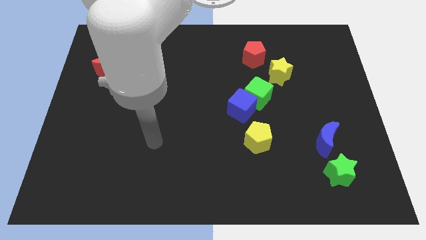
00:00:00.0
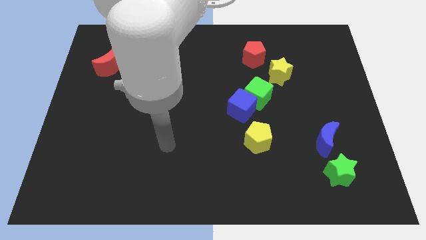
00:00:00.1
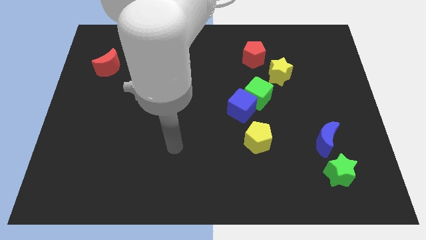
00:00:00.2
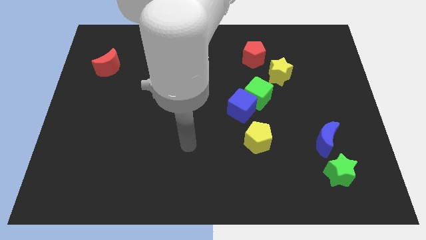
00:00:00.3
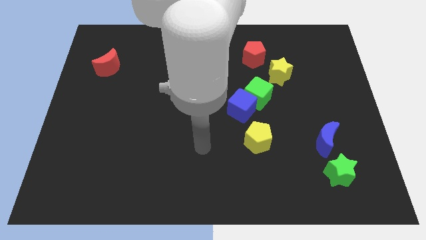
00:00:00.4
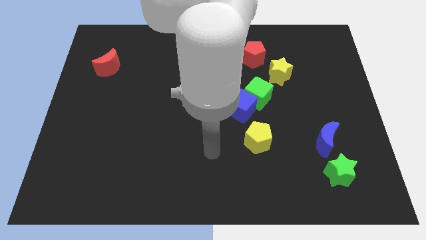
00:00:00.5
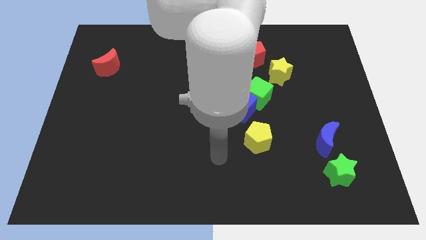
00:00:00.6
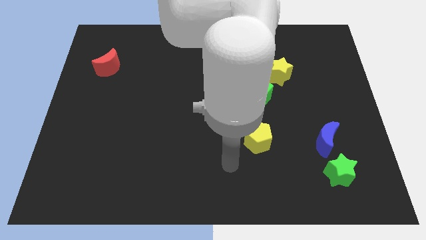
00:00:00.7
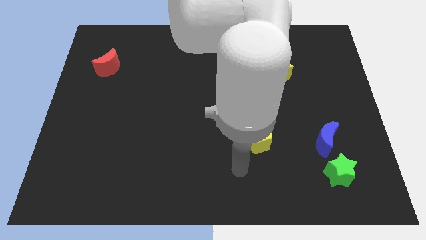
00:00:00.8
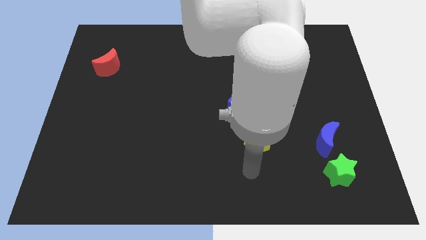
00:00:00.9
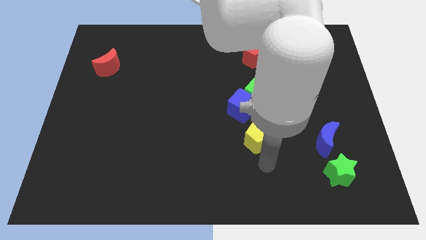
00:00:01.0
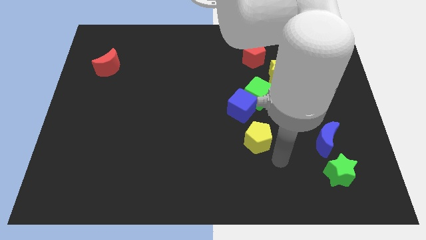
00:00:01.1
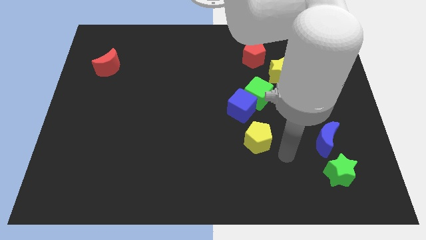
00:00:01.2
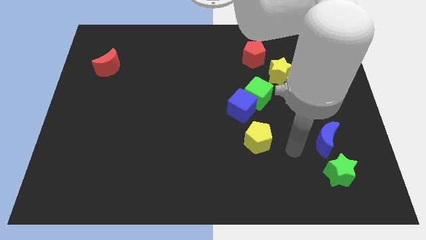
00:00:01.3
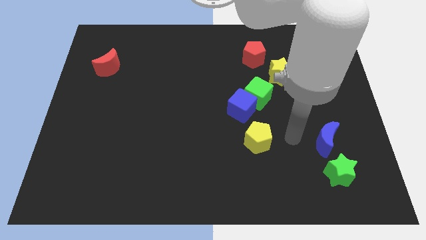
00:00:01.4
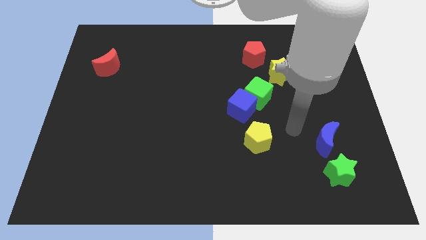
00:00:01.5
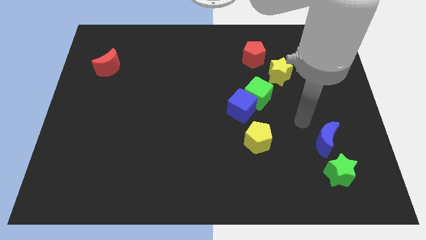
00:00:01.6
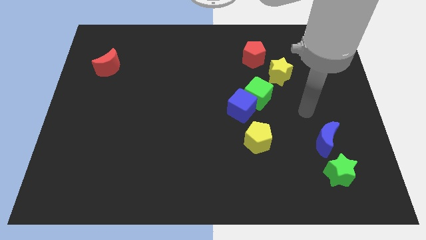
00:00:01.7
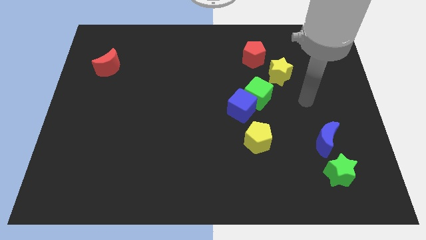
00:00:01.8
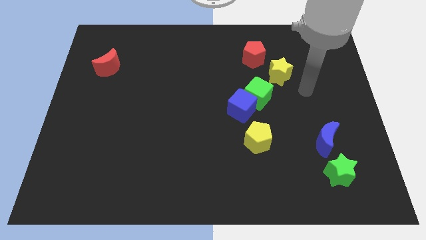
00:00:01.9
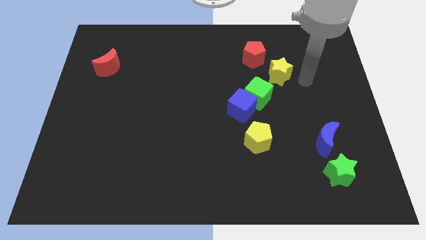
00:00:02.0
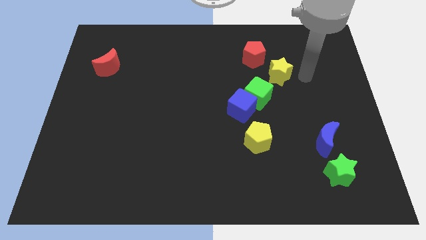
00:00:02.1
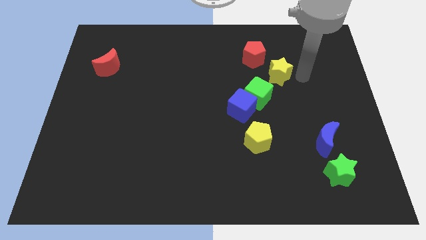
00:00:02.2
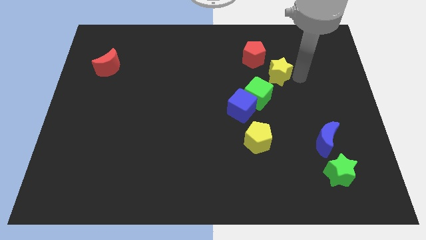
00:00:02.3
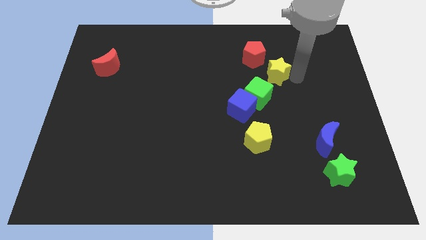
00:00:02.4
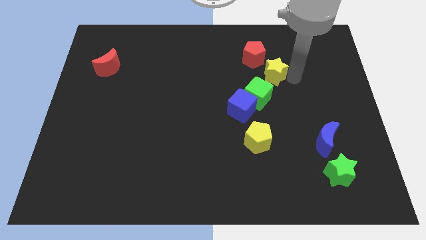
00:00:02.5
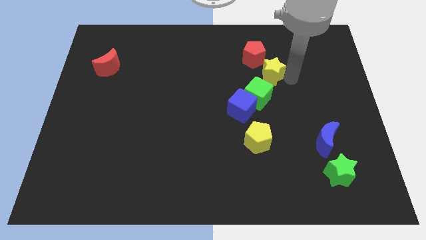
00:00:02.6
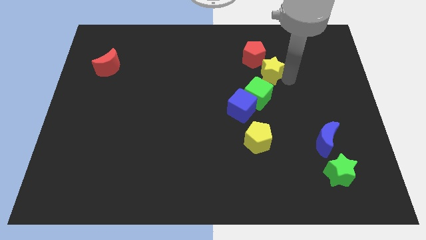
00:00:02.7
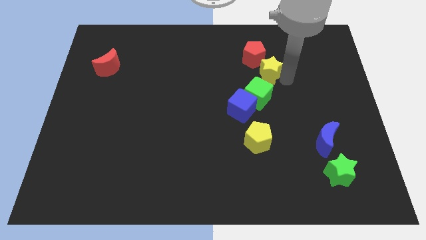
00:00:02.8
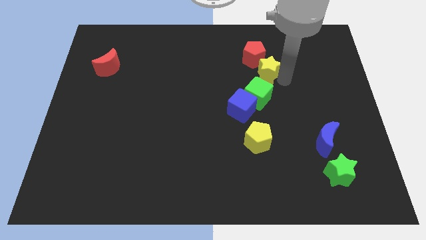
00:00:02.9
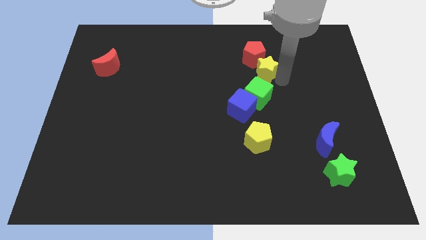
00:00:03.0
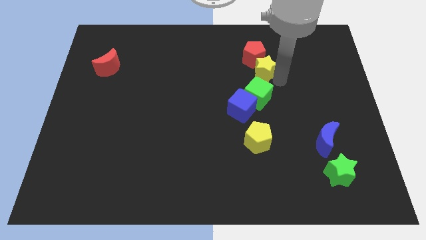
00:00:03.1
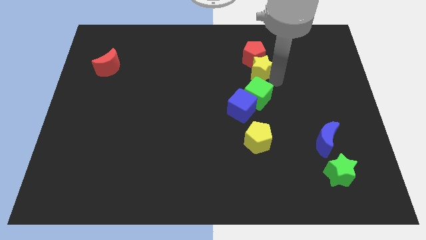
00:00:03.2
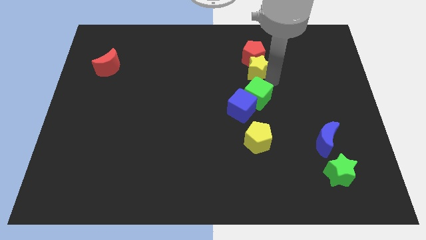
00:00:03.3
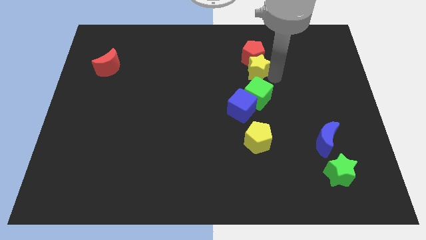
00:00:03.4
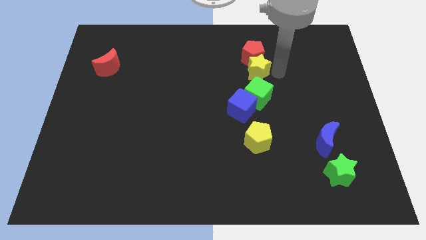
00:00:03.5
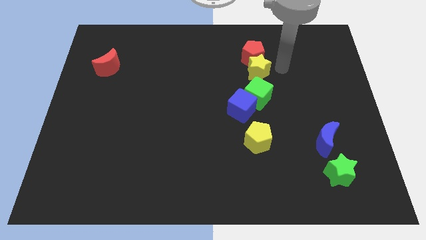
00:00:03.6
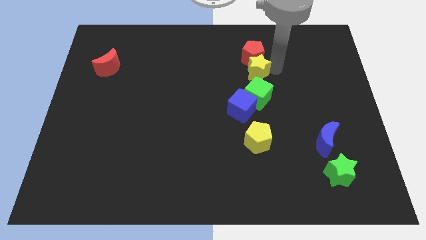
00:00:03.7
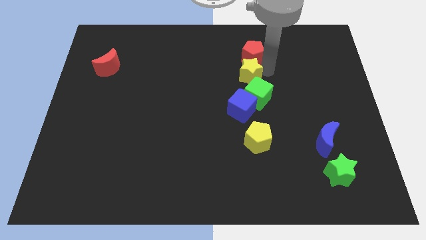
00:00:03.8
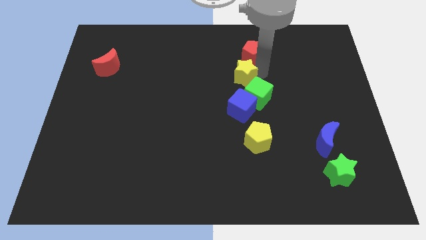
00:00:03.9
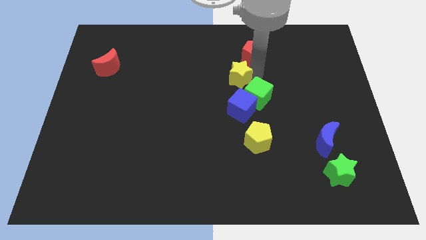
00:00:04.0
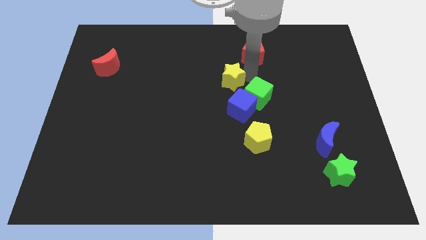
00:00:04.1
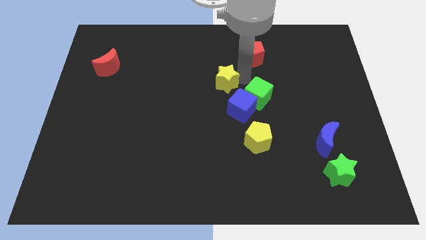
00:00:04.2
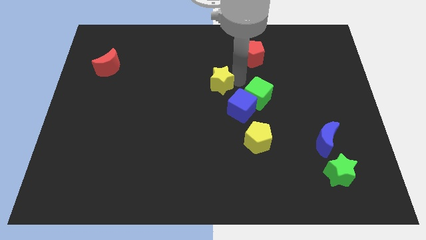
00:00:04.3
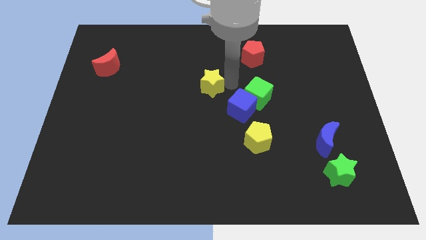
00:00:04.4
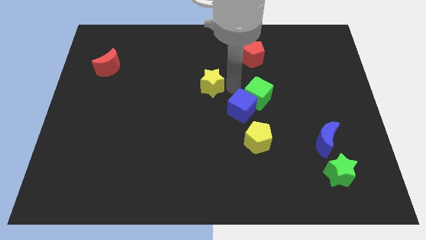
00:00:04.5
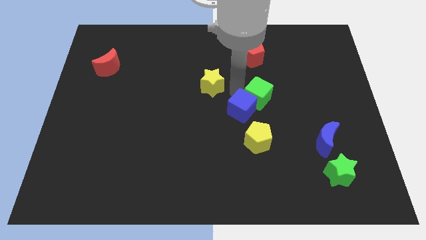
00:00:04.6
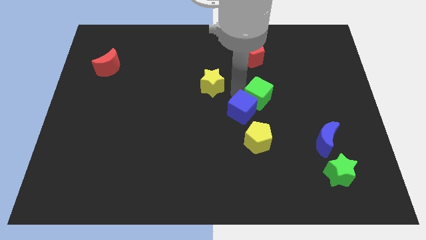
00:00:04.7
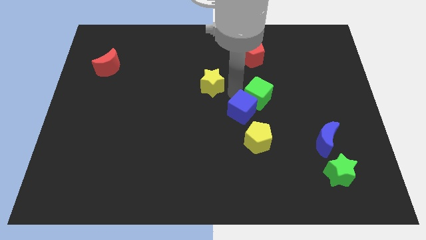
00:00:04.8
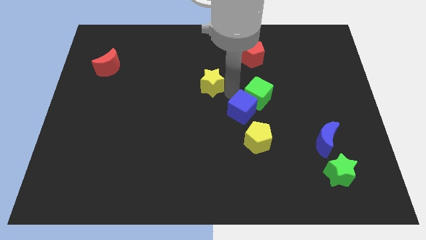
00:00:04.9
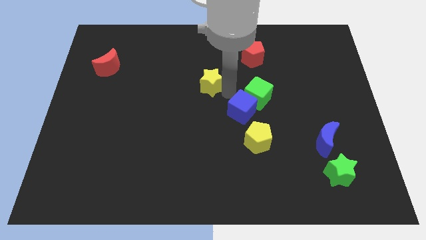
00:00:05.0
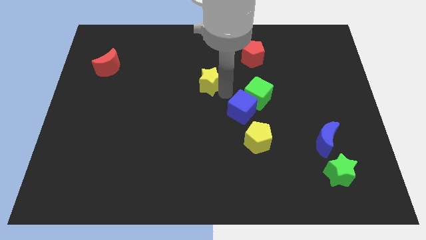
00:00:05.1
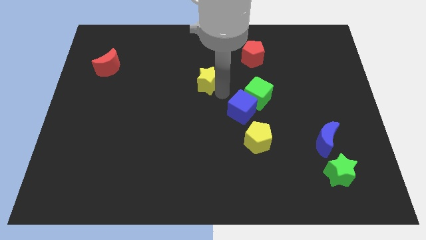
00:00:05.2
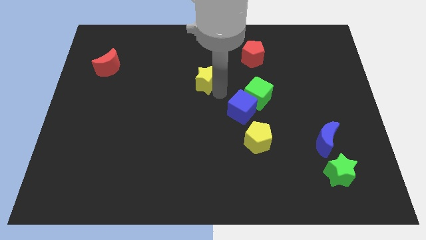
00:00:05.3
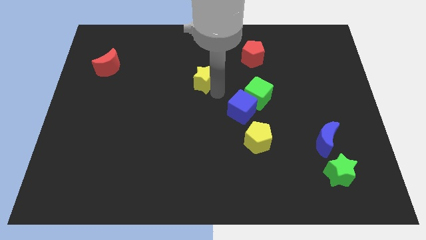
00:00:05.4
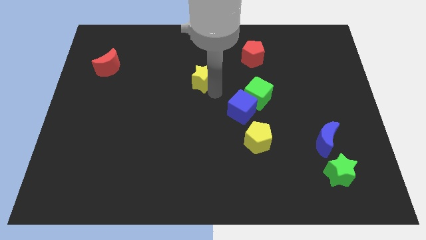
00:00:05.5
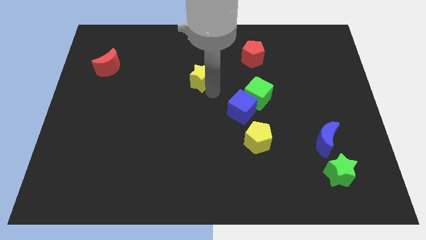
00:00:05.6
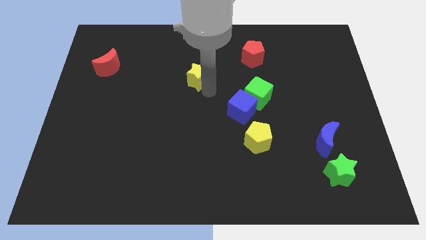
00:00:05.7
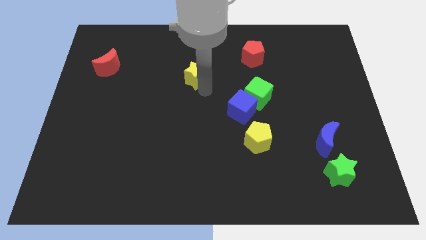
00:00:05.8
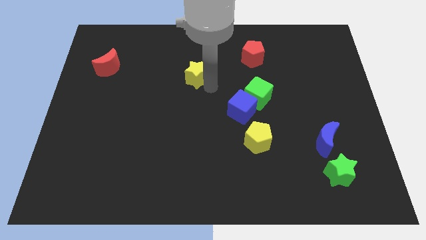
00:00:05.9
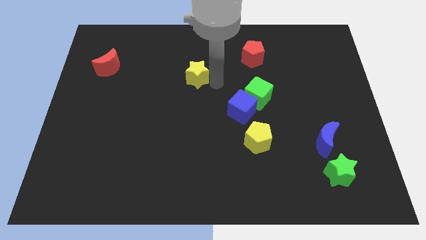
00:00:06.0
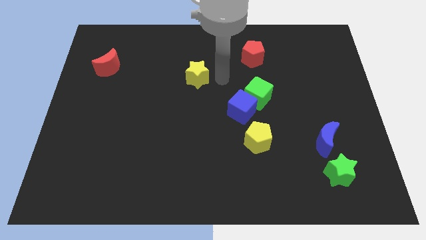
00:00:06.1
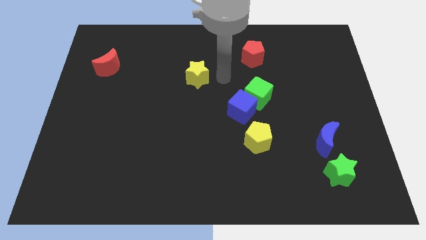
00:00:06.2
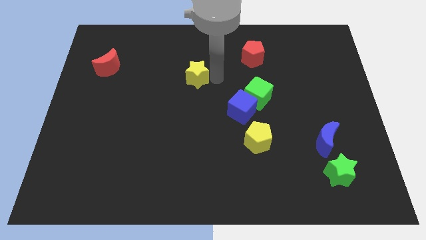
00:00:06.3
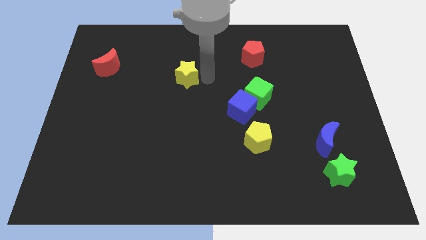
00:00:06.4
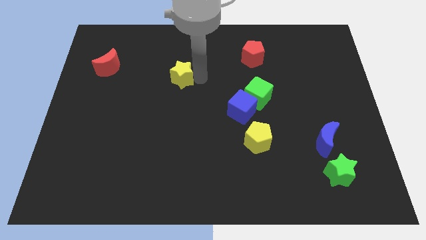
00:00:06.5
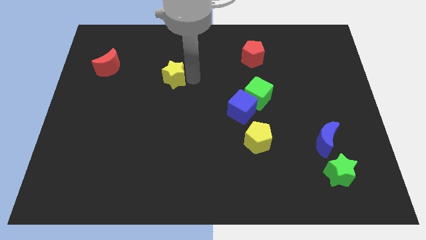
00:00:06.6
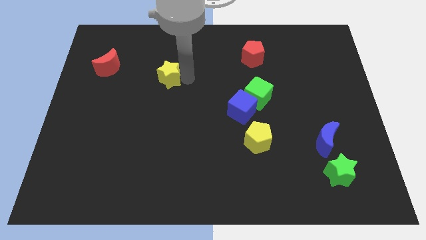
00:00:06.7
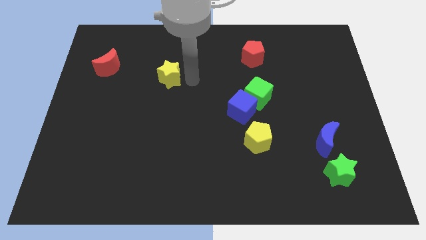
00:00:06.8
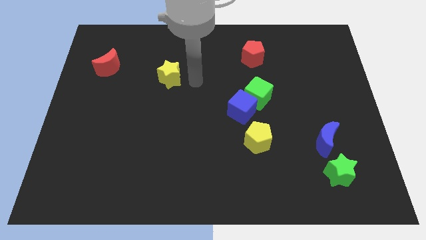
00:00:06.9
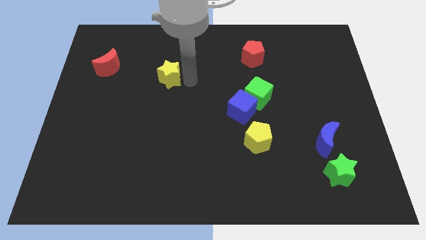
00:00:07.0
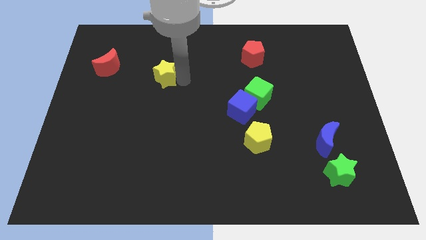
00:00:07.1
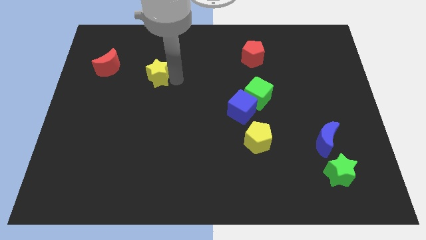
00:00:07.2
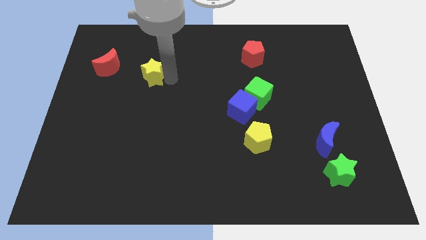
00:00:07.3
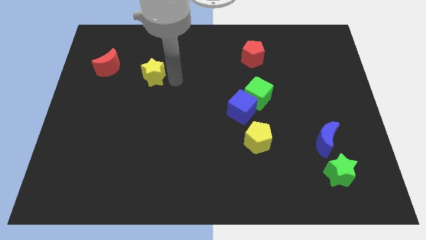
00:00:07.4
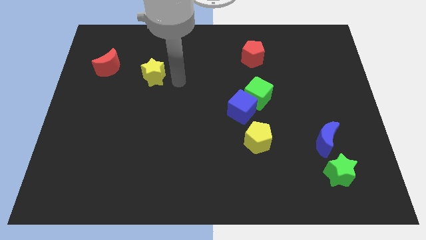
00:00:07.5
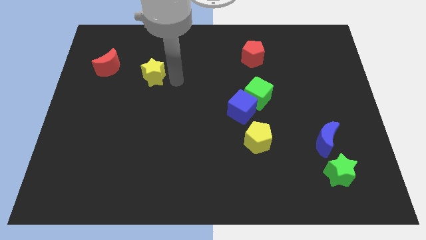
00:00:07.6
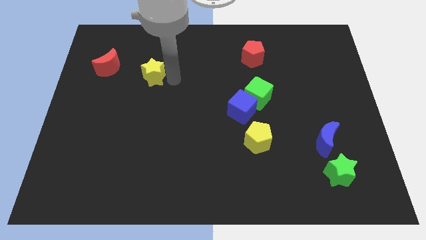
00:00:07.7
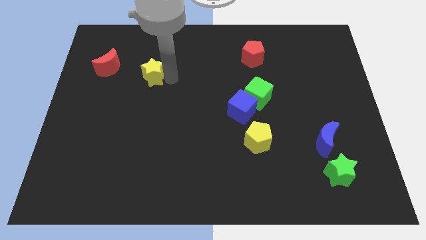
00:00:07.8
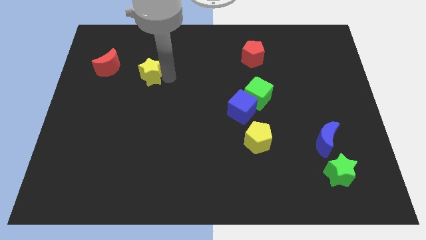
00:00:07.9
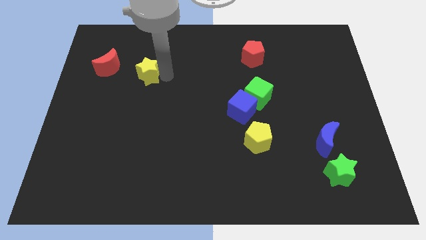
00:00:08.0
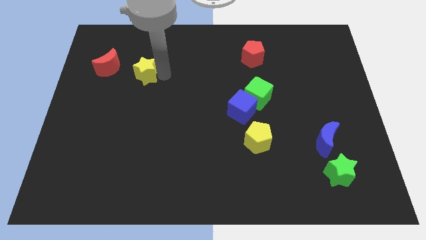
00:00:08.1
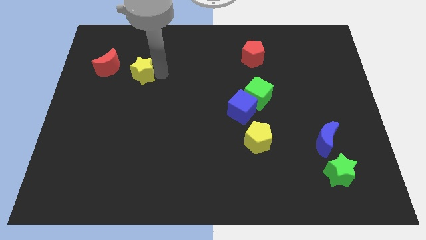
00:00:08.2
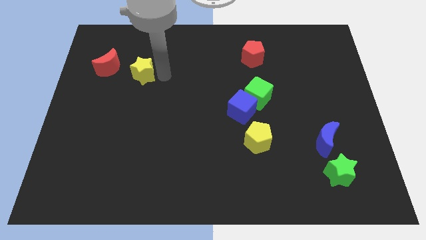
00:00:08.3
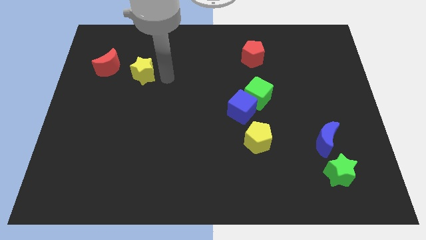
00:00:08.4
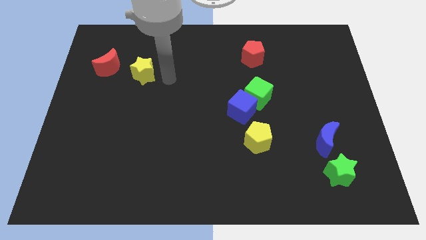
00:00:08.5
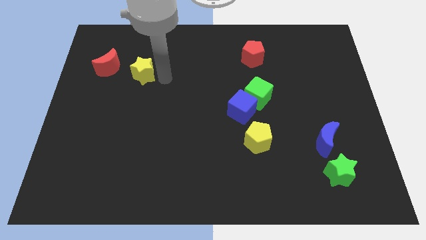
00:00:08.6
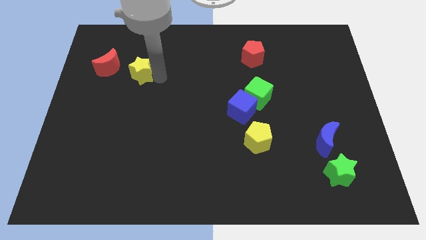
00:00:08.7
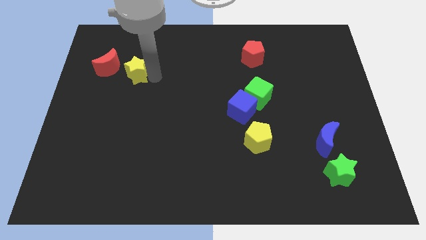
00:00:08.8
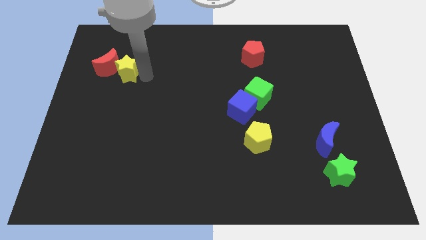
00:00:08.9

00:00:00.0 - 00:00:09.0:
push the yellow star towards the red moon
